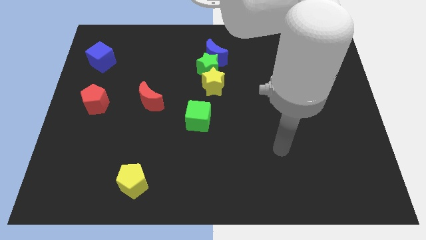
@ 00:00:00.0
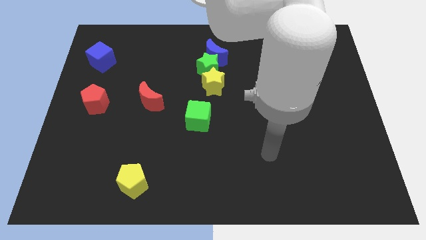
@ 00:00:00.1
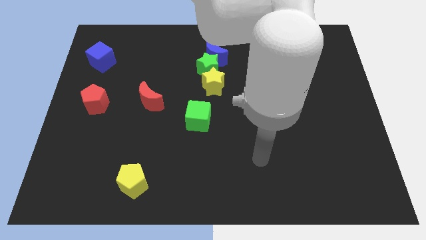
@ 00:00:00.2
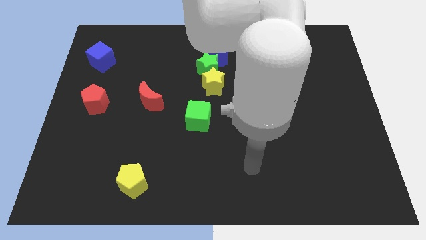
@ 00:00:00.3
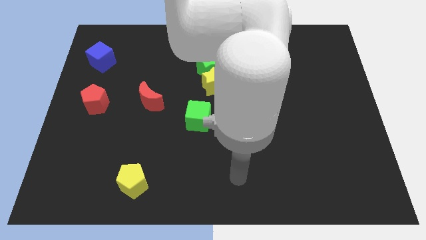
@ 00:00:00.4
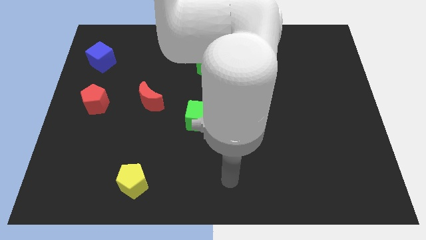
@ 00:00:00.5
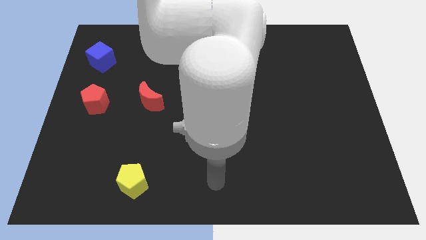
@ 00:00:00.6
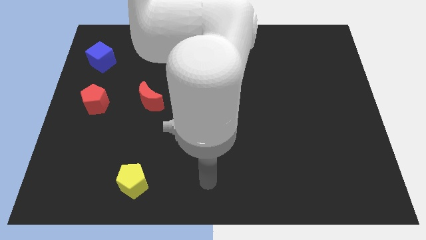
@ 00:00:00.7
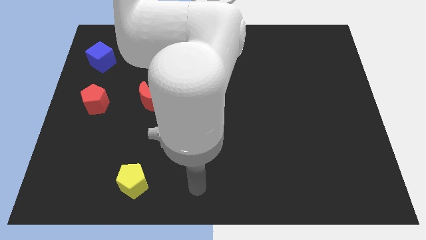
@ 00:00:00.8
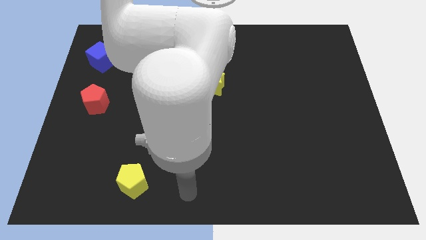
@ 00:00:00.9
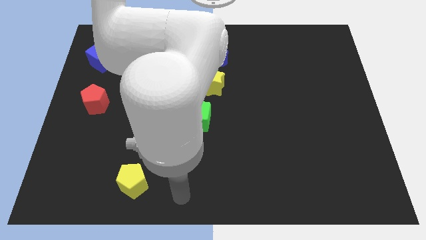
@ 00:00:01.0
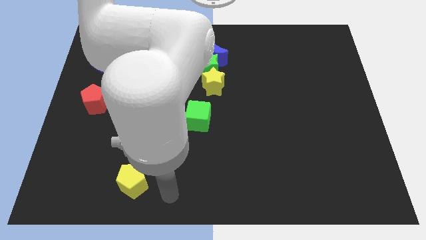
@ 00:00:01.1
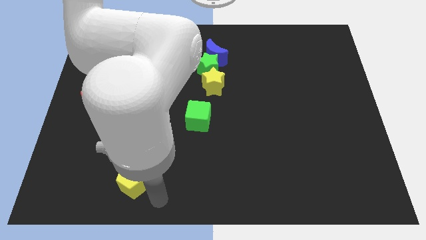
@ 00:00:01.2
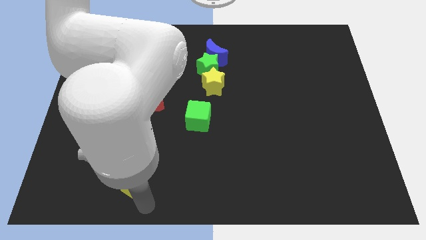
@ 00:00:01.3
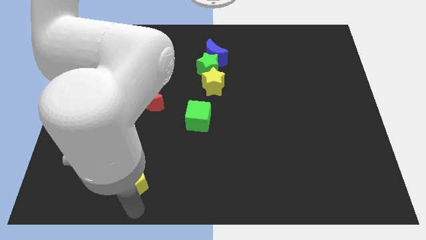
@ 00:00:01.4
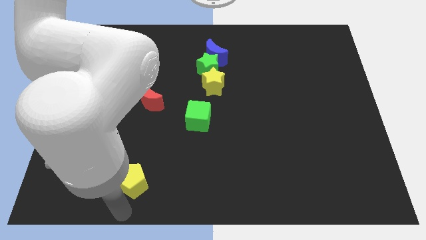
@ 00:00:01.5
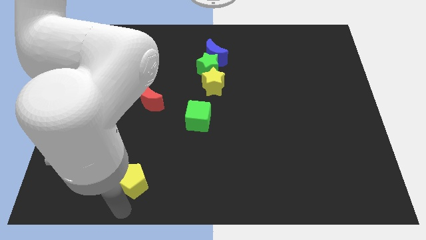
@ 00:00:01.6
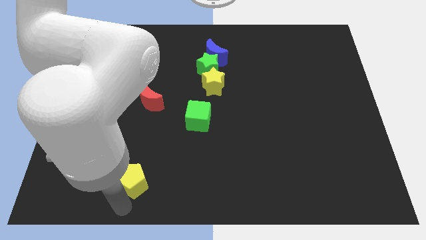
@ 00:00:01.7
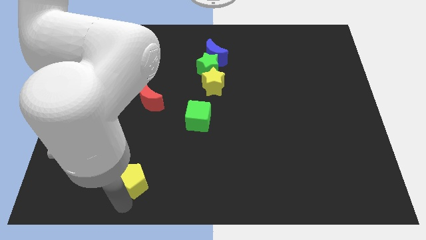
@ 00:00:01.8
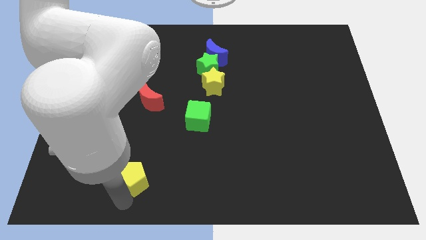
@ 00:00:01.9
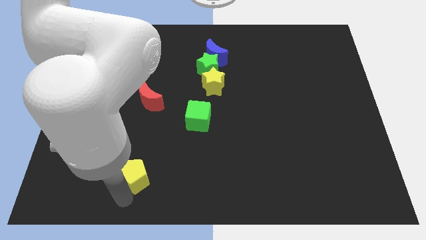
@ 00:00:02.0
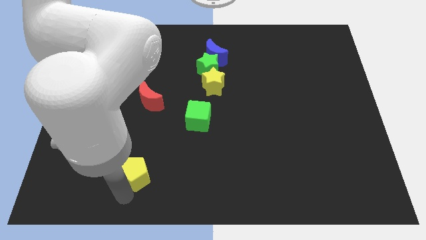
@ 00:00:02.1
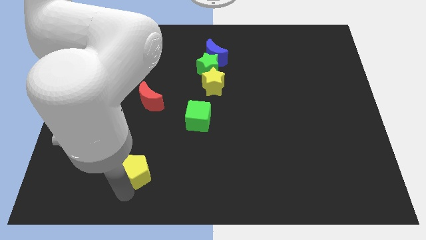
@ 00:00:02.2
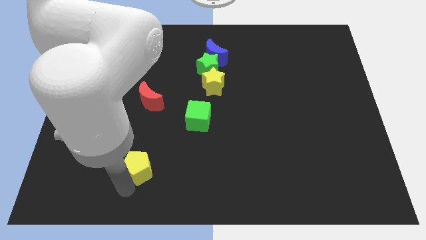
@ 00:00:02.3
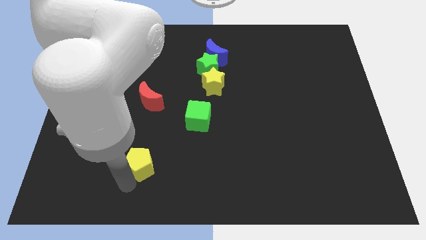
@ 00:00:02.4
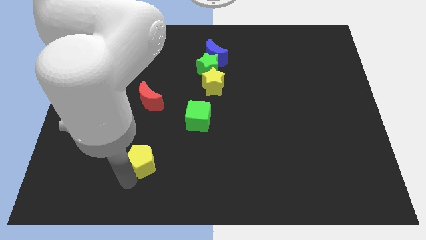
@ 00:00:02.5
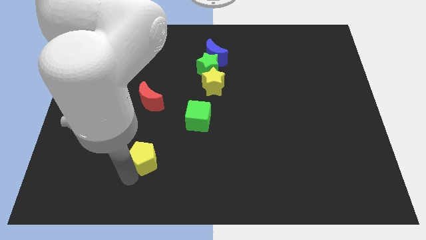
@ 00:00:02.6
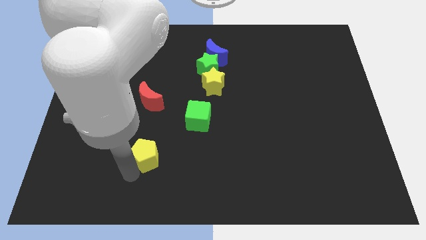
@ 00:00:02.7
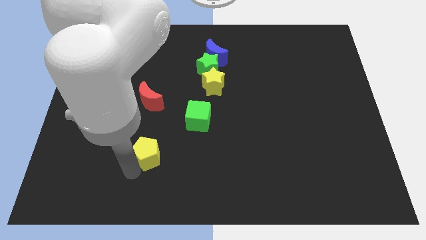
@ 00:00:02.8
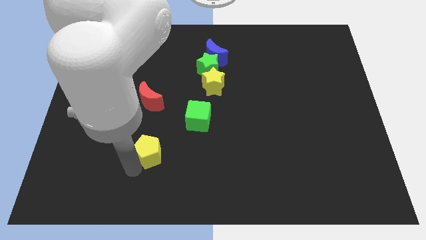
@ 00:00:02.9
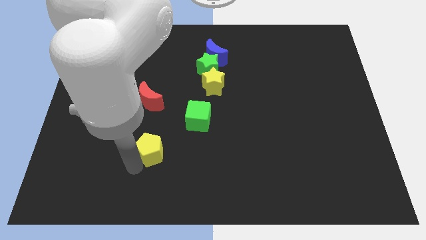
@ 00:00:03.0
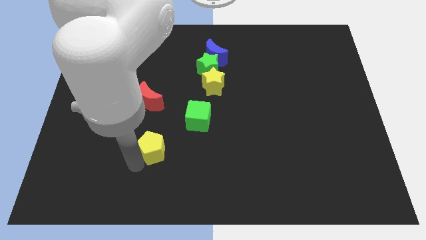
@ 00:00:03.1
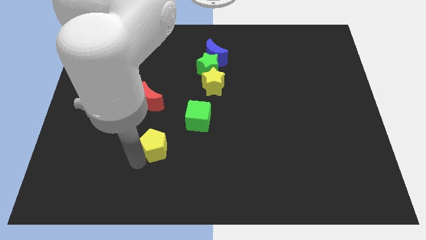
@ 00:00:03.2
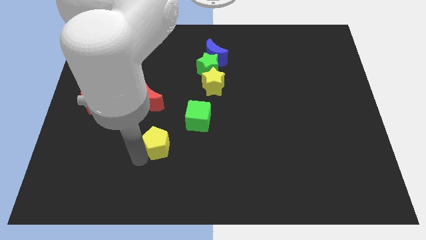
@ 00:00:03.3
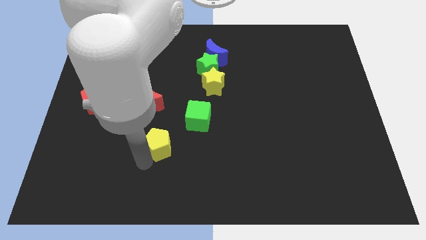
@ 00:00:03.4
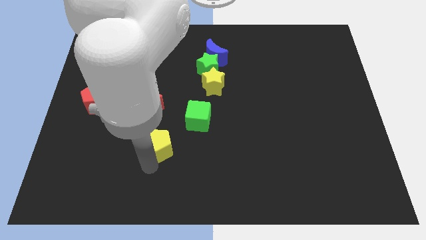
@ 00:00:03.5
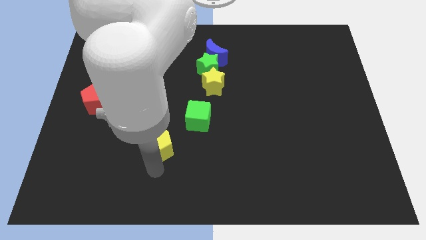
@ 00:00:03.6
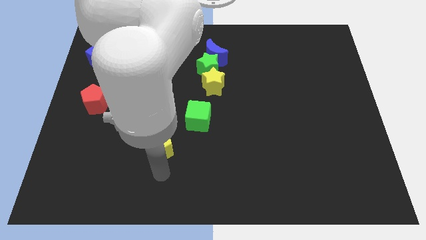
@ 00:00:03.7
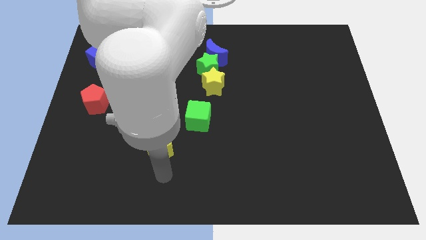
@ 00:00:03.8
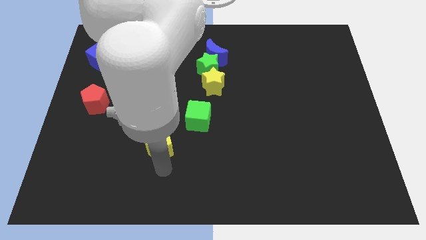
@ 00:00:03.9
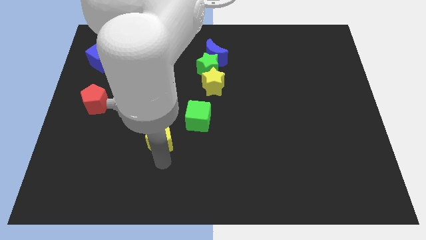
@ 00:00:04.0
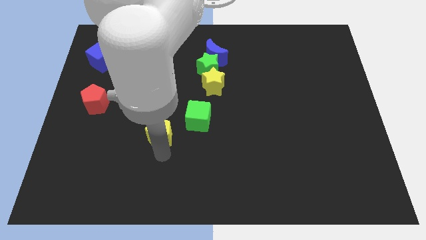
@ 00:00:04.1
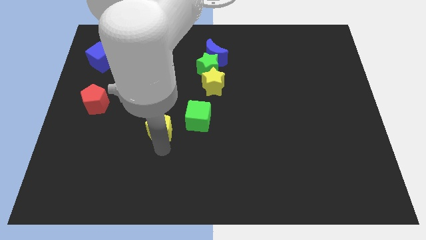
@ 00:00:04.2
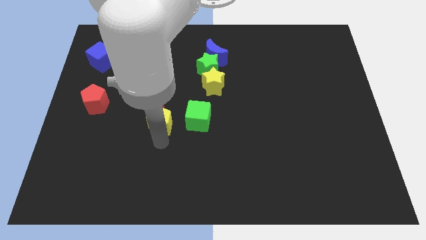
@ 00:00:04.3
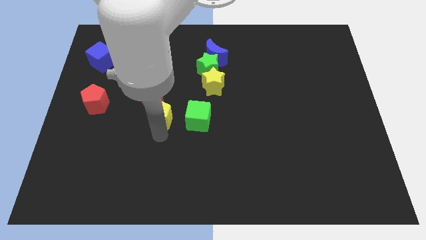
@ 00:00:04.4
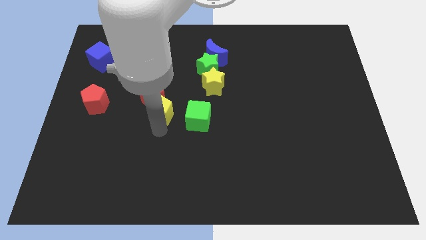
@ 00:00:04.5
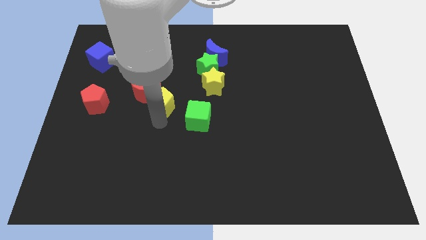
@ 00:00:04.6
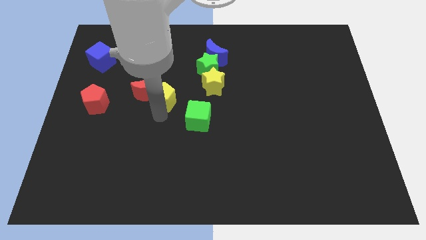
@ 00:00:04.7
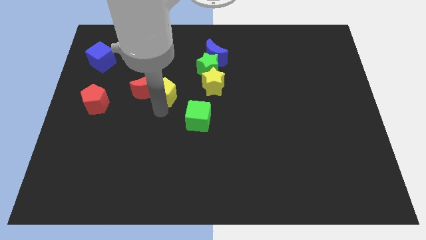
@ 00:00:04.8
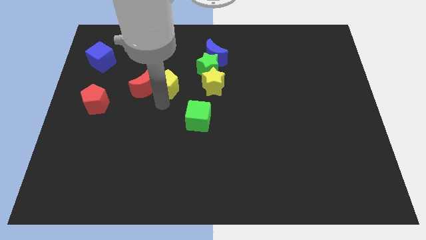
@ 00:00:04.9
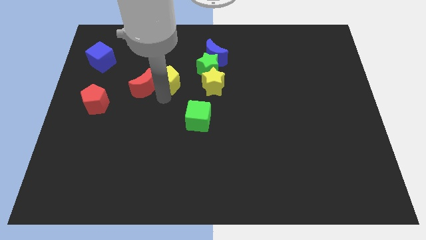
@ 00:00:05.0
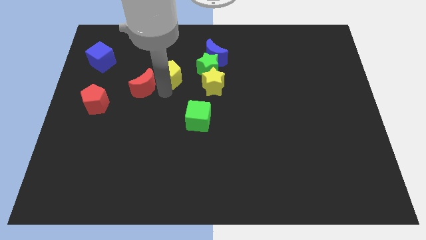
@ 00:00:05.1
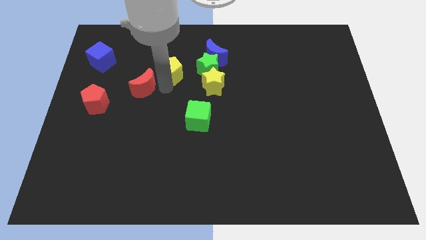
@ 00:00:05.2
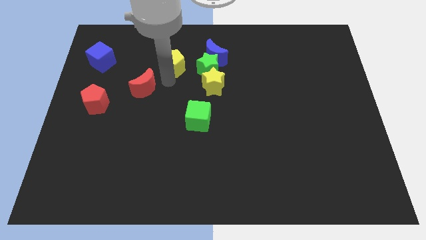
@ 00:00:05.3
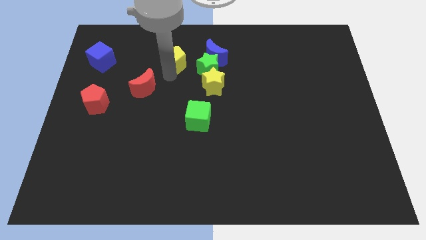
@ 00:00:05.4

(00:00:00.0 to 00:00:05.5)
put the yellow pentagon to the top left of the green star

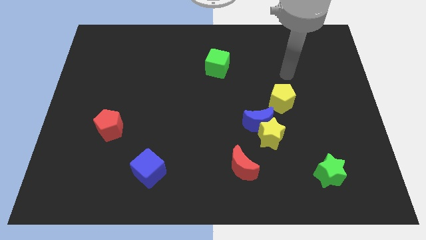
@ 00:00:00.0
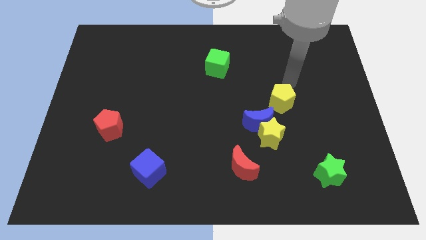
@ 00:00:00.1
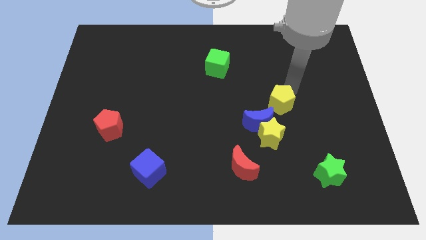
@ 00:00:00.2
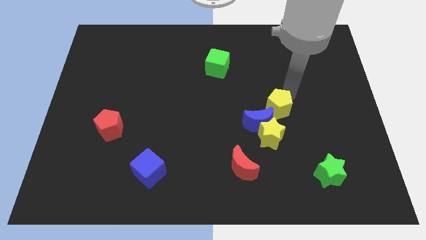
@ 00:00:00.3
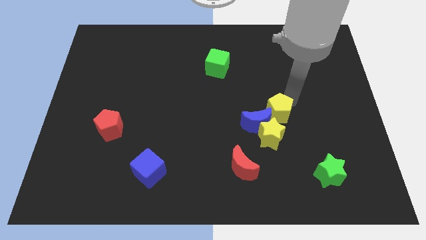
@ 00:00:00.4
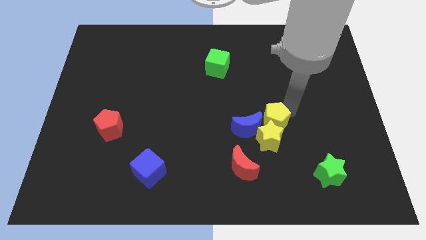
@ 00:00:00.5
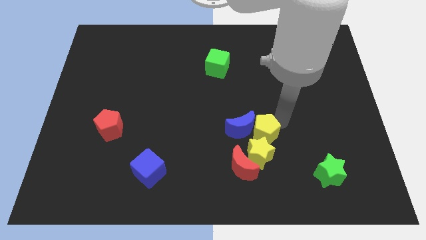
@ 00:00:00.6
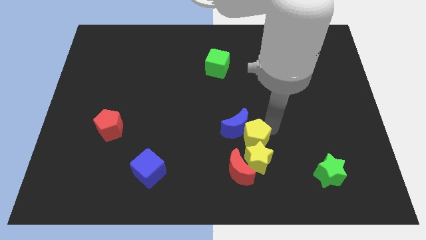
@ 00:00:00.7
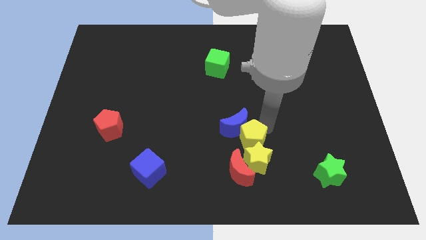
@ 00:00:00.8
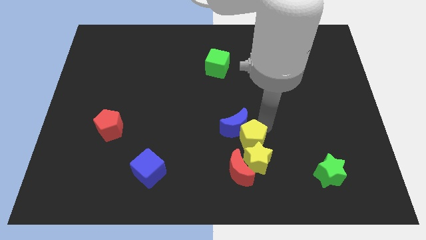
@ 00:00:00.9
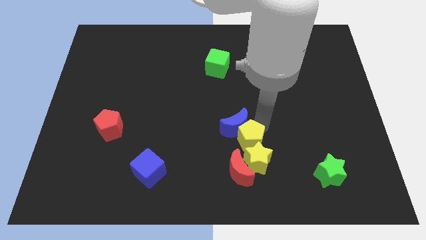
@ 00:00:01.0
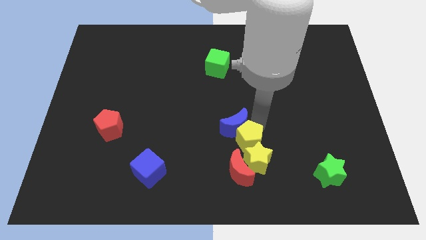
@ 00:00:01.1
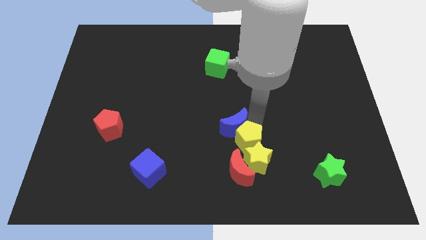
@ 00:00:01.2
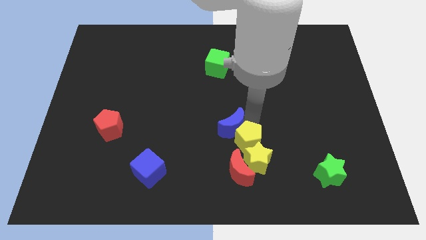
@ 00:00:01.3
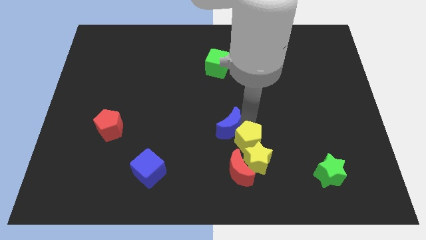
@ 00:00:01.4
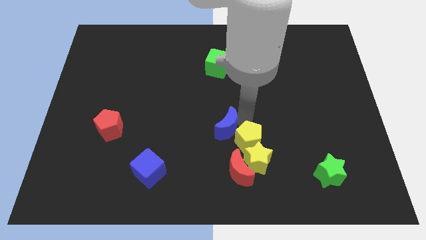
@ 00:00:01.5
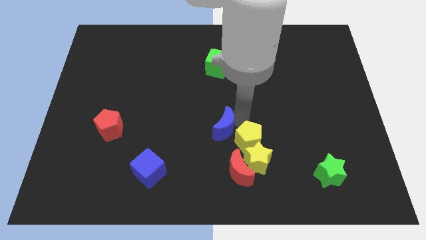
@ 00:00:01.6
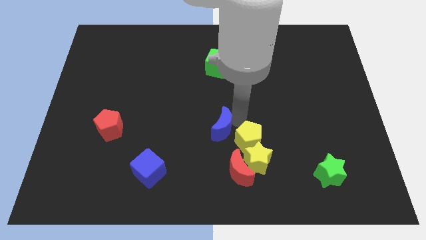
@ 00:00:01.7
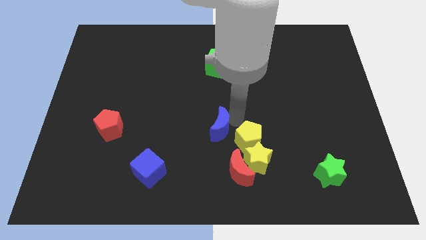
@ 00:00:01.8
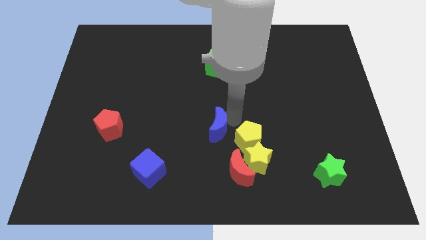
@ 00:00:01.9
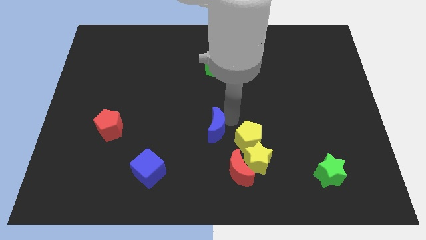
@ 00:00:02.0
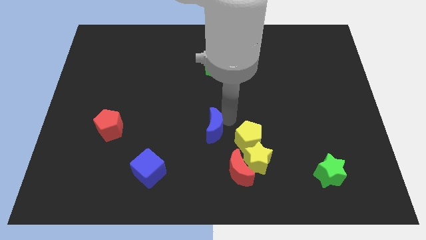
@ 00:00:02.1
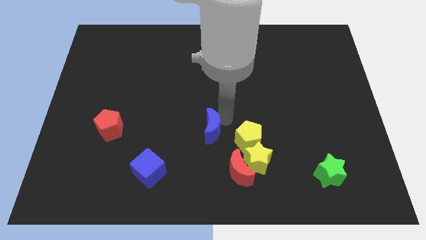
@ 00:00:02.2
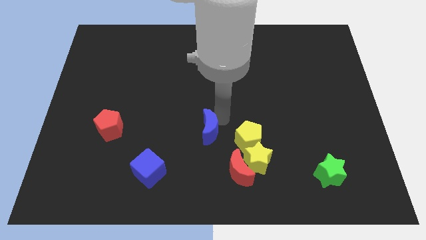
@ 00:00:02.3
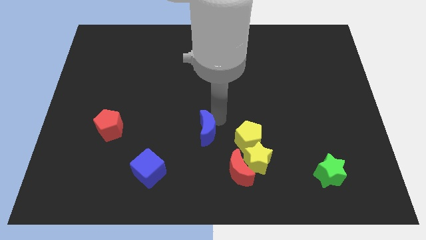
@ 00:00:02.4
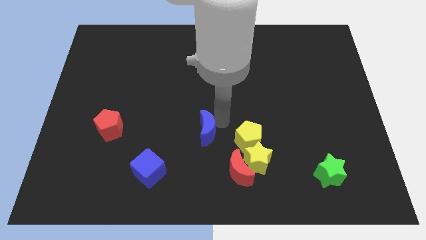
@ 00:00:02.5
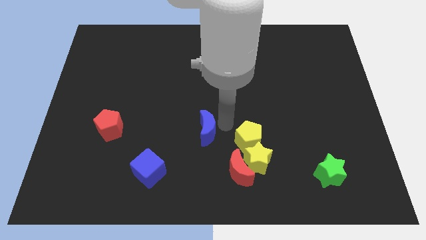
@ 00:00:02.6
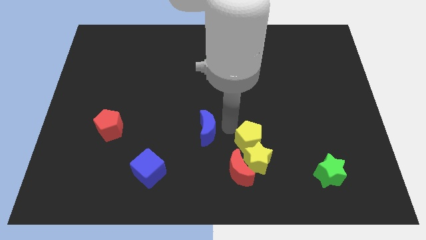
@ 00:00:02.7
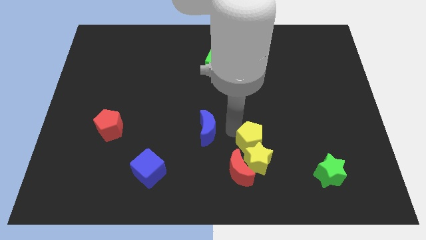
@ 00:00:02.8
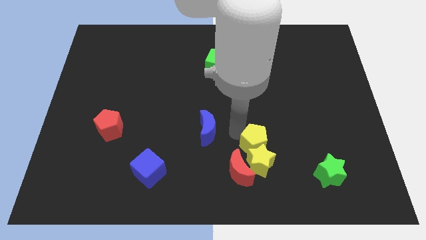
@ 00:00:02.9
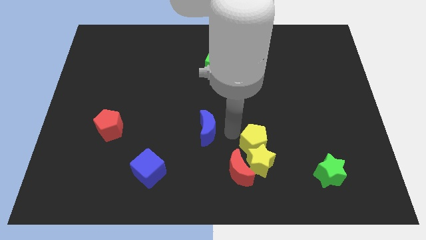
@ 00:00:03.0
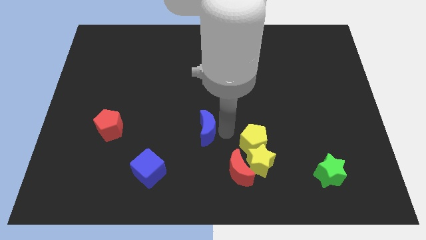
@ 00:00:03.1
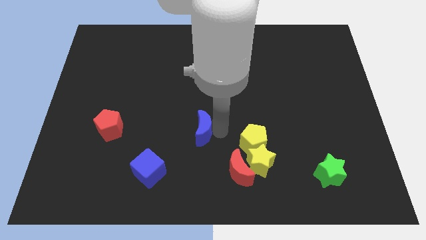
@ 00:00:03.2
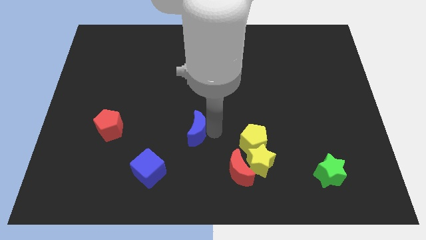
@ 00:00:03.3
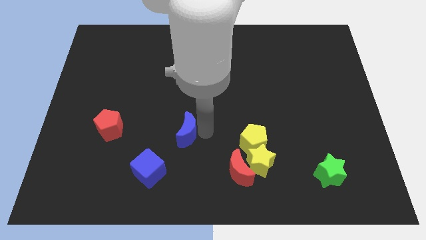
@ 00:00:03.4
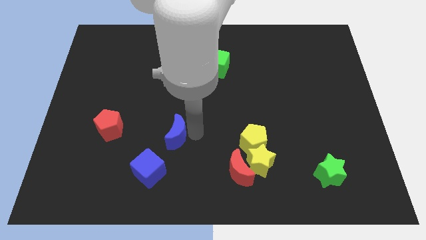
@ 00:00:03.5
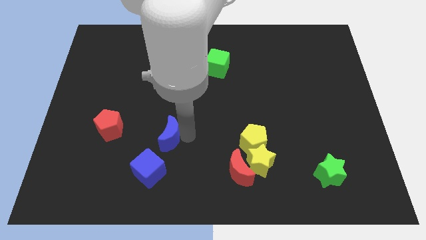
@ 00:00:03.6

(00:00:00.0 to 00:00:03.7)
push the blue moon to the top of the blue cube
